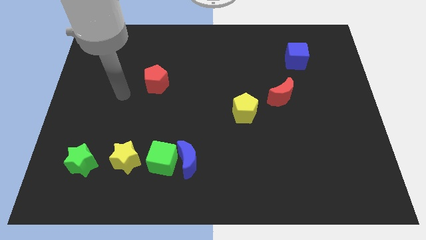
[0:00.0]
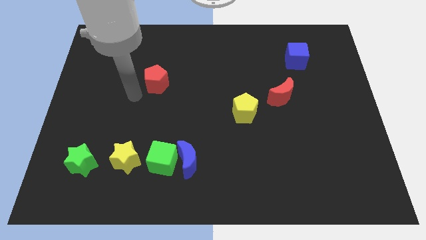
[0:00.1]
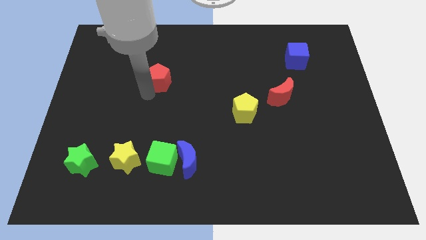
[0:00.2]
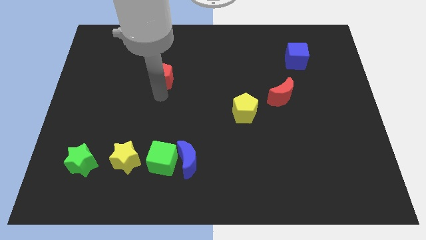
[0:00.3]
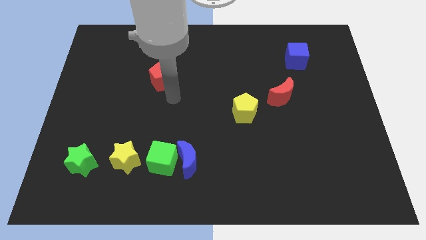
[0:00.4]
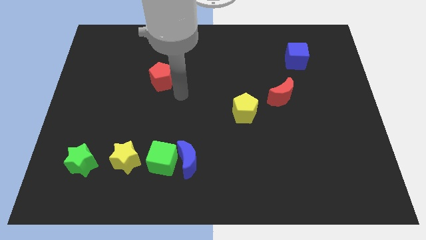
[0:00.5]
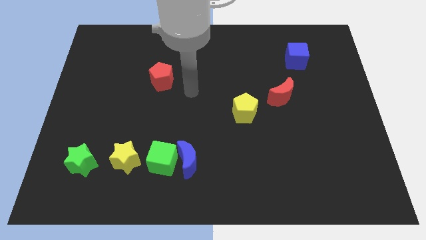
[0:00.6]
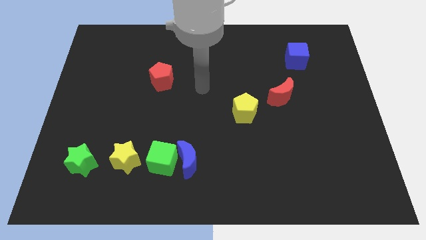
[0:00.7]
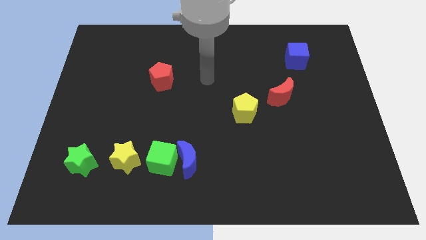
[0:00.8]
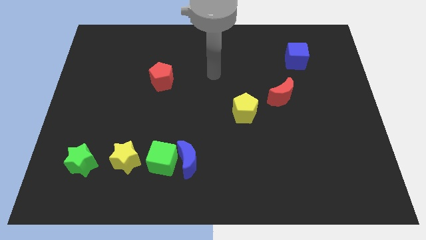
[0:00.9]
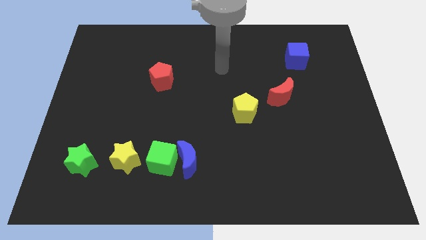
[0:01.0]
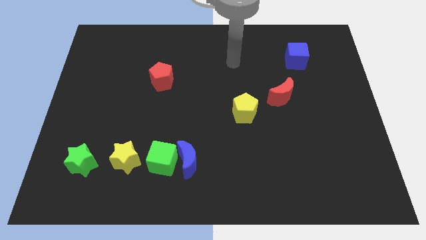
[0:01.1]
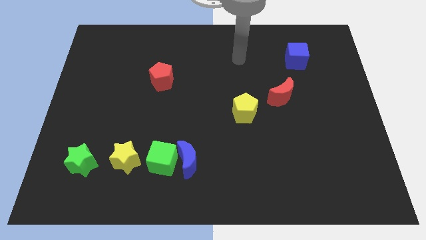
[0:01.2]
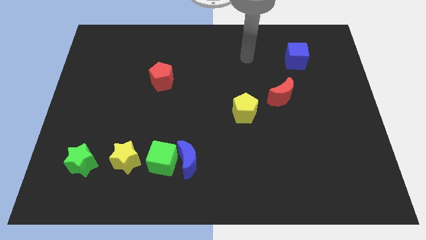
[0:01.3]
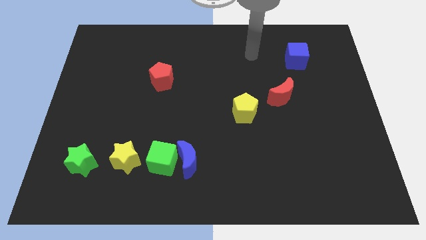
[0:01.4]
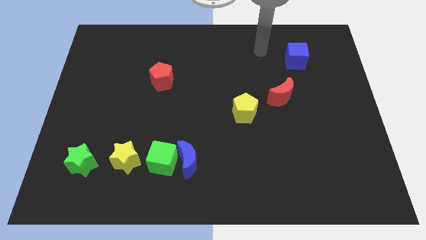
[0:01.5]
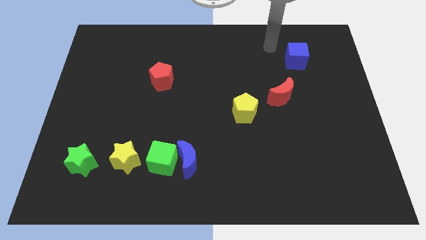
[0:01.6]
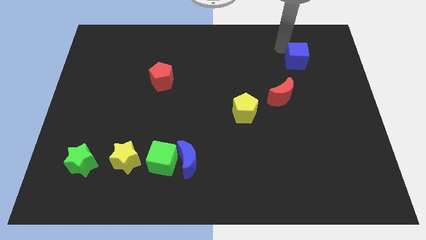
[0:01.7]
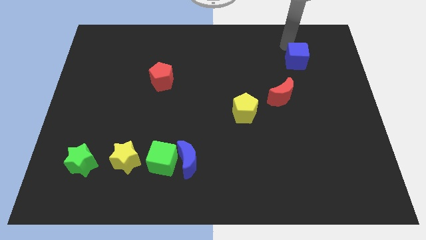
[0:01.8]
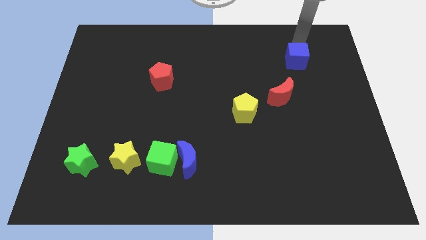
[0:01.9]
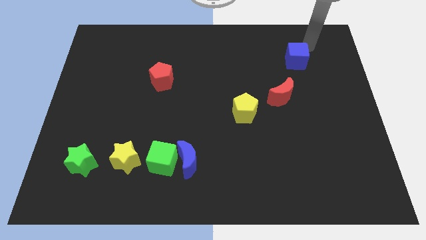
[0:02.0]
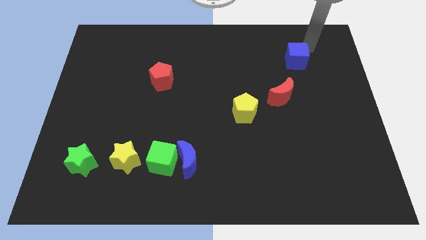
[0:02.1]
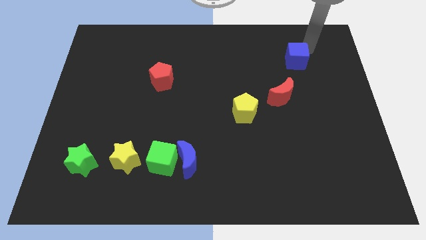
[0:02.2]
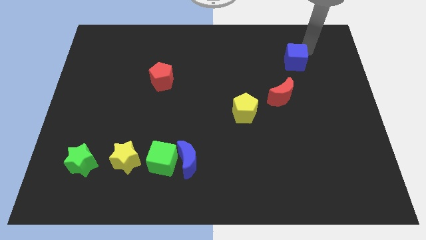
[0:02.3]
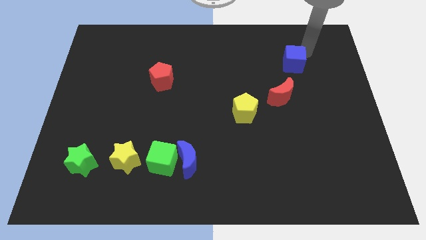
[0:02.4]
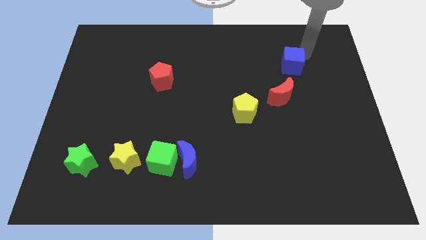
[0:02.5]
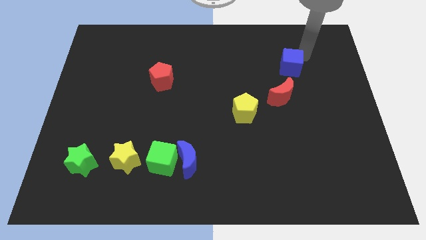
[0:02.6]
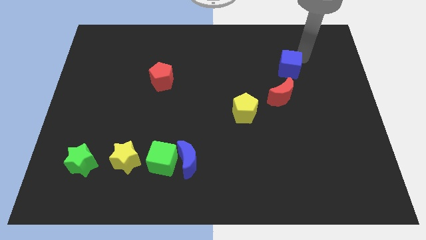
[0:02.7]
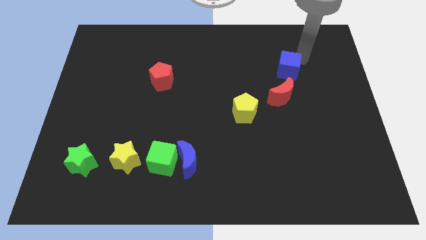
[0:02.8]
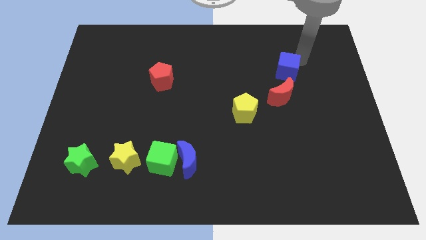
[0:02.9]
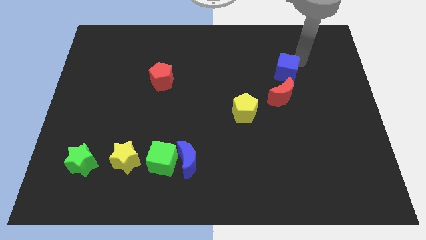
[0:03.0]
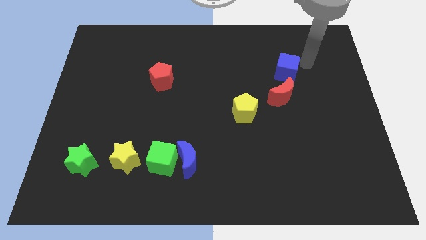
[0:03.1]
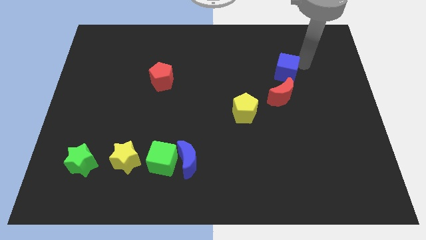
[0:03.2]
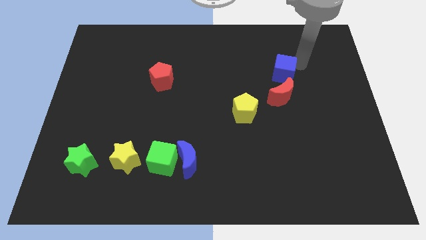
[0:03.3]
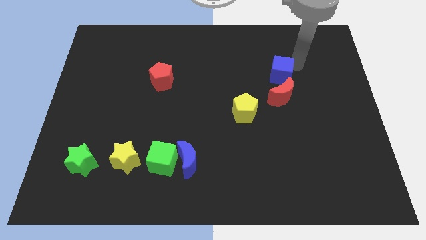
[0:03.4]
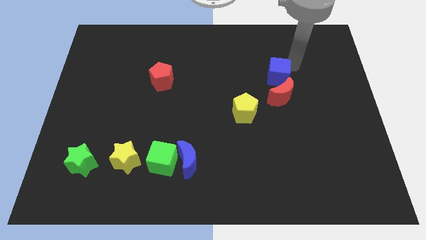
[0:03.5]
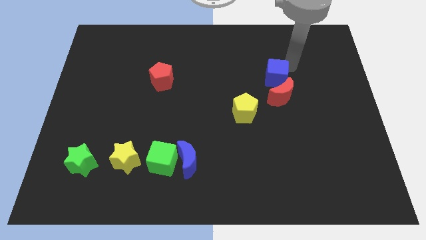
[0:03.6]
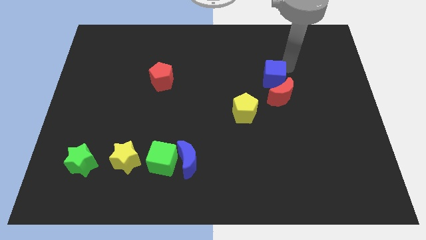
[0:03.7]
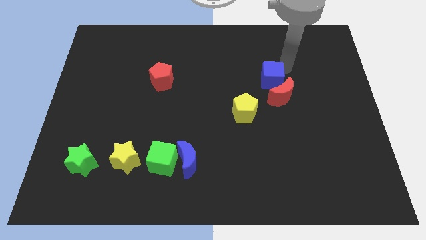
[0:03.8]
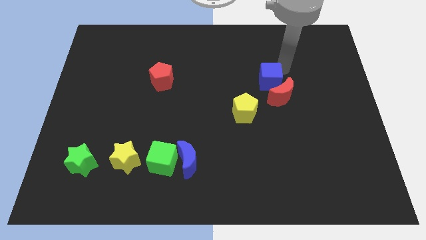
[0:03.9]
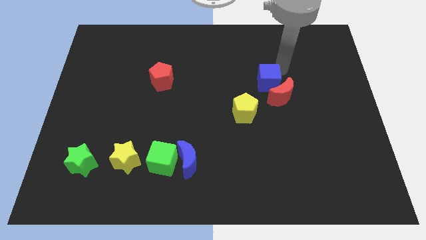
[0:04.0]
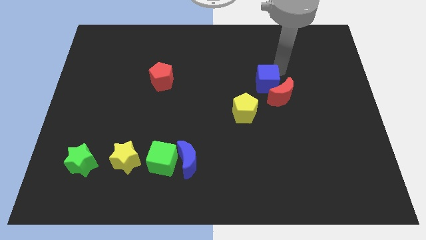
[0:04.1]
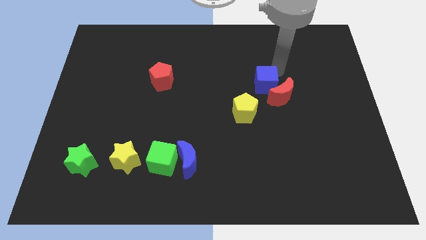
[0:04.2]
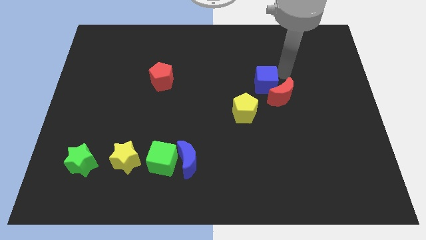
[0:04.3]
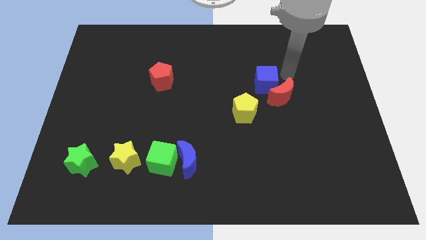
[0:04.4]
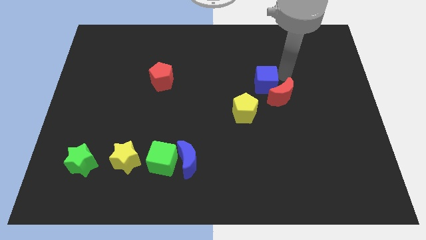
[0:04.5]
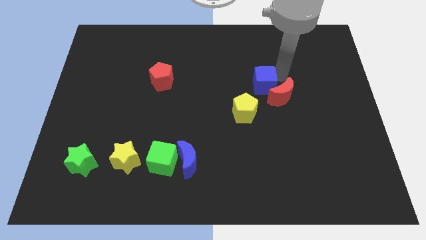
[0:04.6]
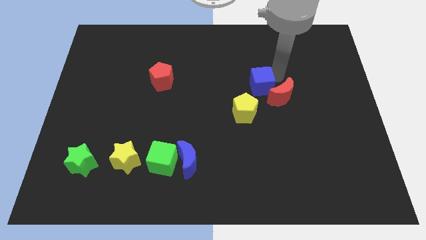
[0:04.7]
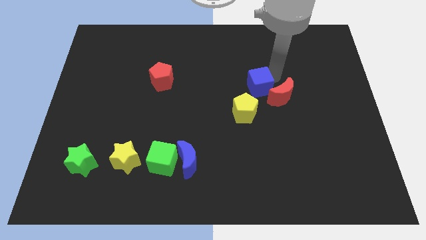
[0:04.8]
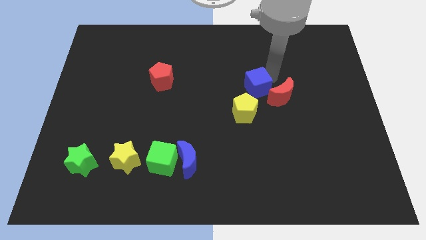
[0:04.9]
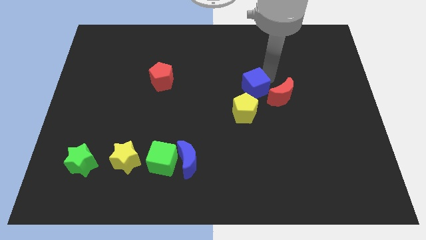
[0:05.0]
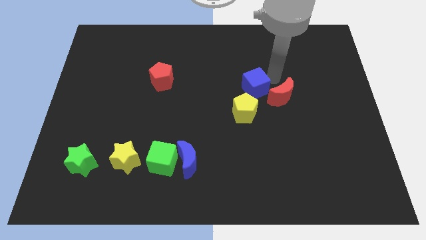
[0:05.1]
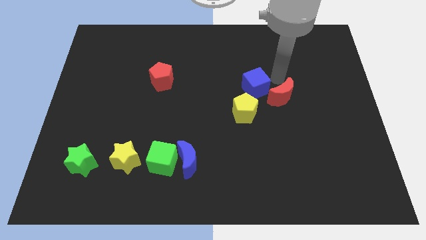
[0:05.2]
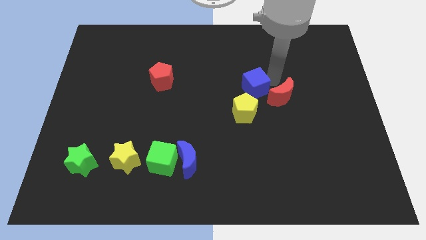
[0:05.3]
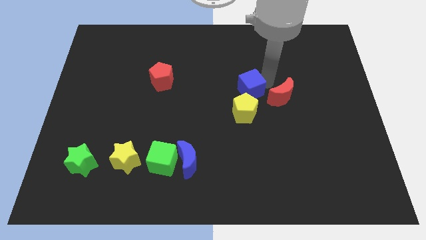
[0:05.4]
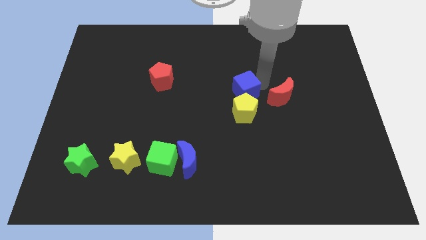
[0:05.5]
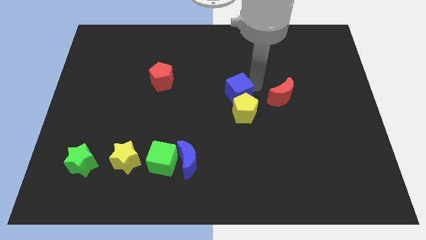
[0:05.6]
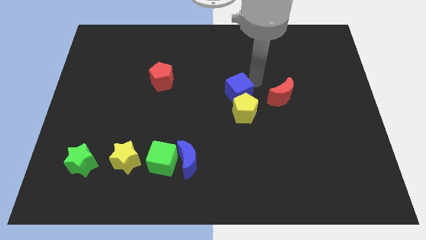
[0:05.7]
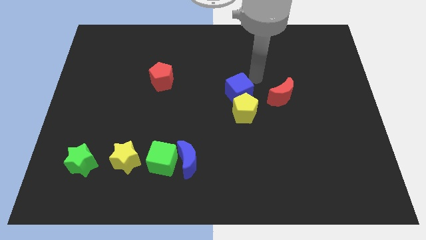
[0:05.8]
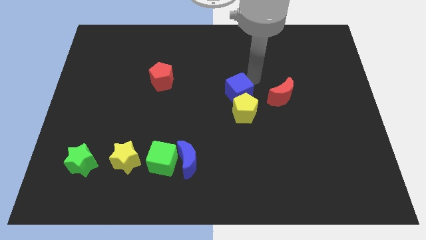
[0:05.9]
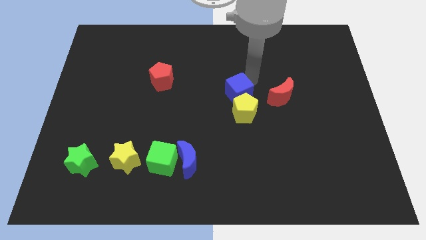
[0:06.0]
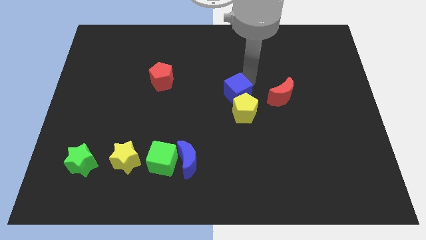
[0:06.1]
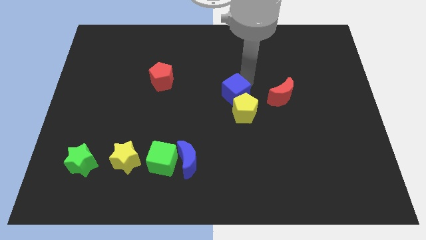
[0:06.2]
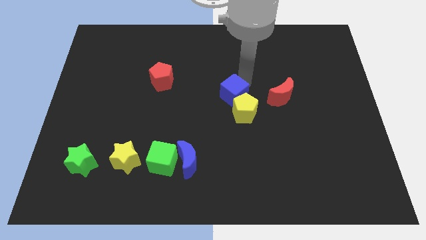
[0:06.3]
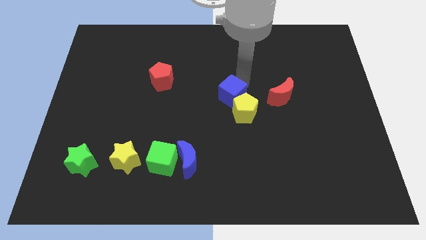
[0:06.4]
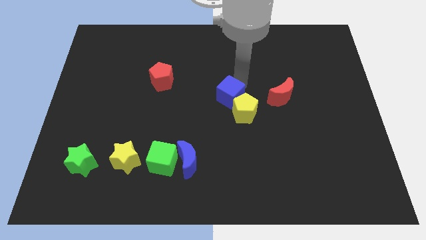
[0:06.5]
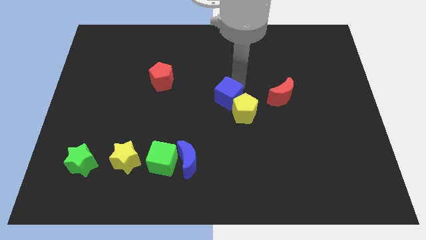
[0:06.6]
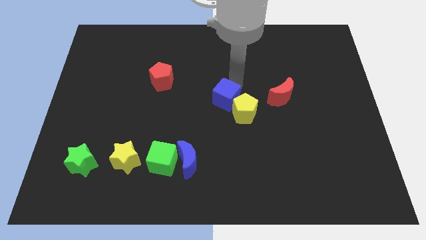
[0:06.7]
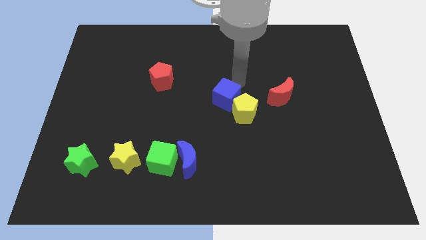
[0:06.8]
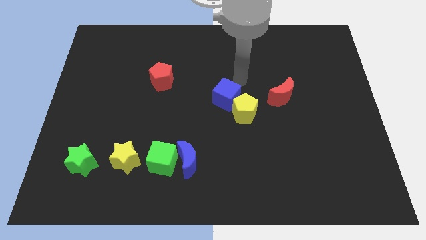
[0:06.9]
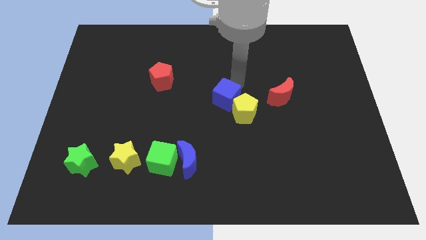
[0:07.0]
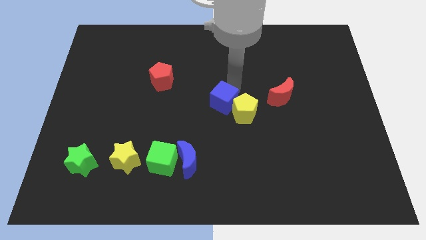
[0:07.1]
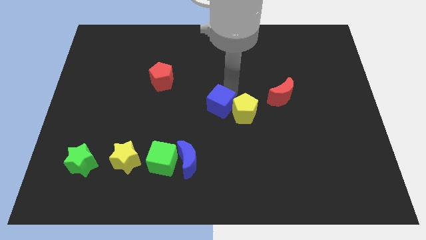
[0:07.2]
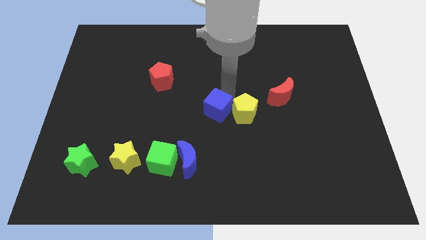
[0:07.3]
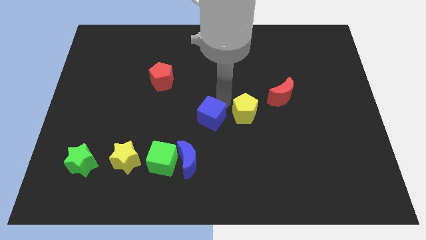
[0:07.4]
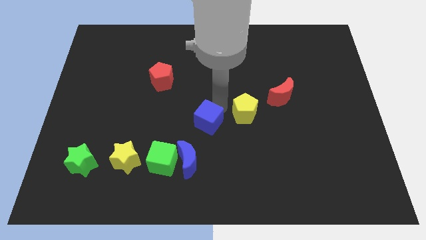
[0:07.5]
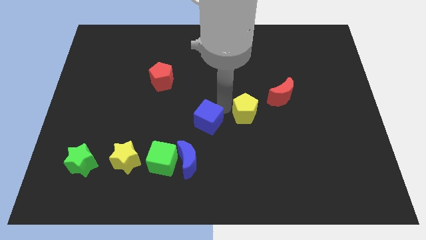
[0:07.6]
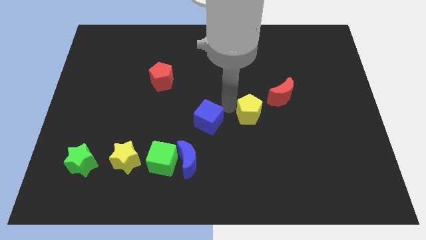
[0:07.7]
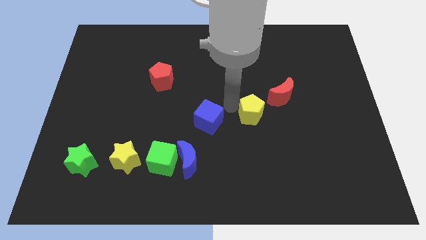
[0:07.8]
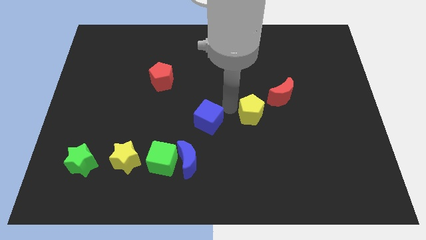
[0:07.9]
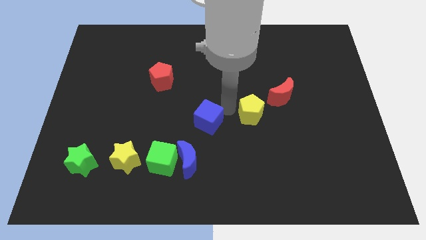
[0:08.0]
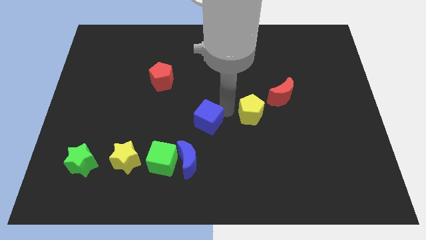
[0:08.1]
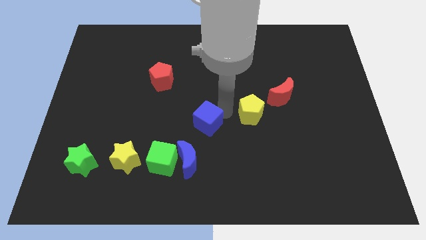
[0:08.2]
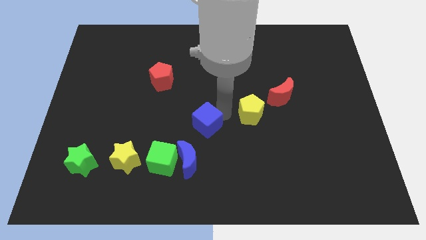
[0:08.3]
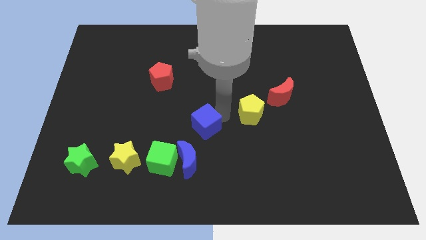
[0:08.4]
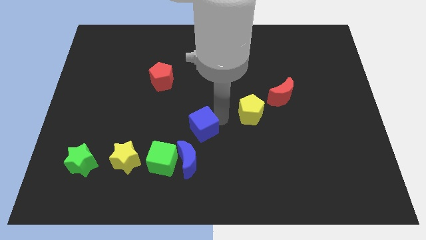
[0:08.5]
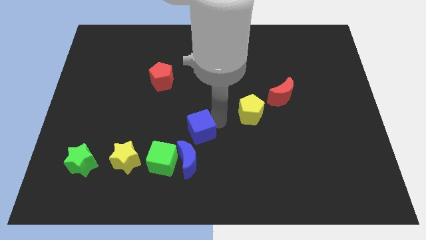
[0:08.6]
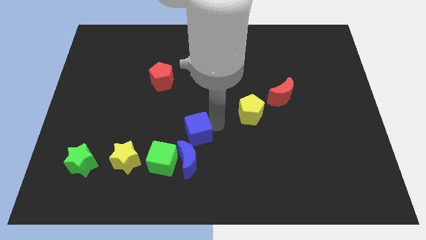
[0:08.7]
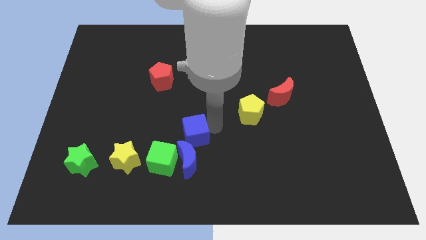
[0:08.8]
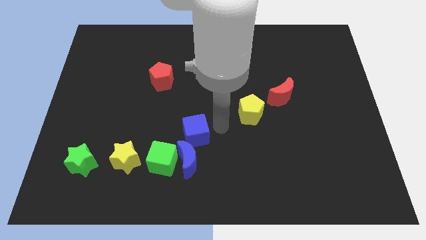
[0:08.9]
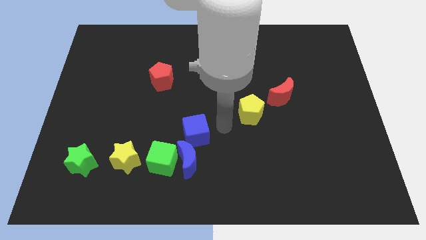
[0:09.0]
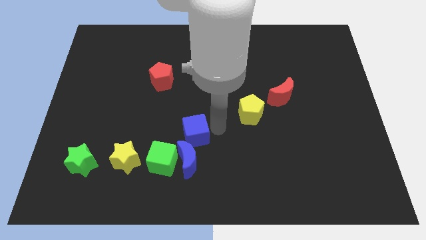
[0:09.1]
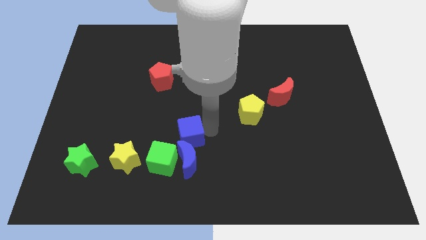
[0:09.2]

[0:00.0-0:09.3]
slide the blue cube to the top left of the blue moon
